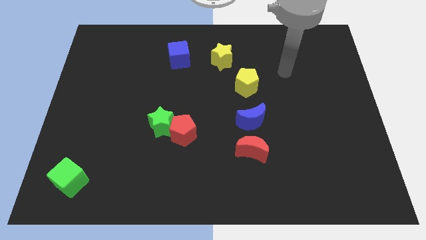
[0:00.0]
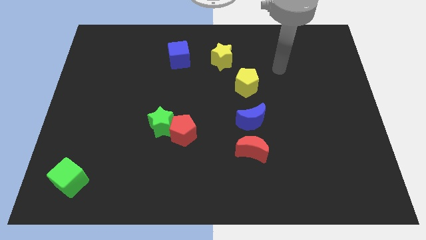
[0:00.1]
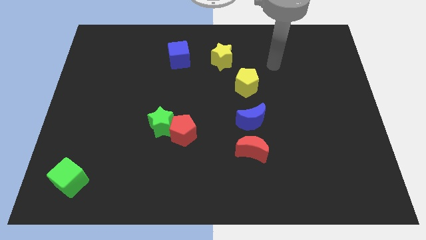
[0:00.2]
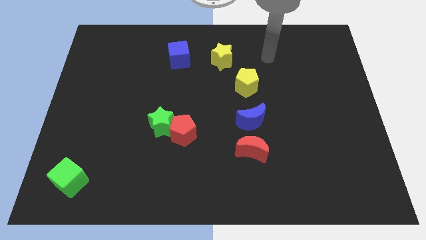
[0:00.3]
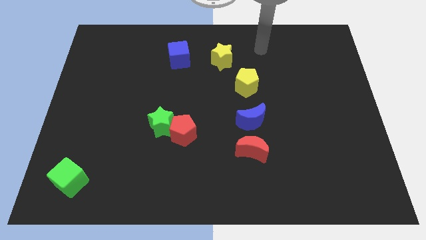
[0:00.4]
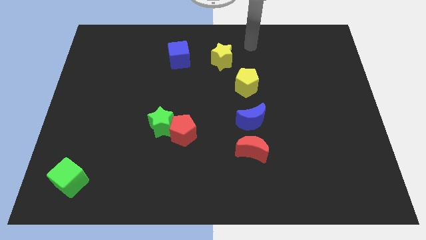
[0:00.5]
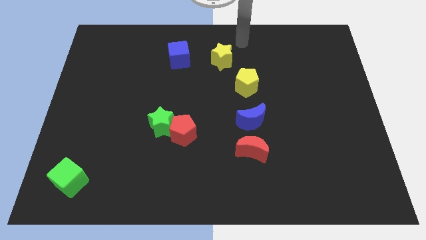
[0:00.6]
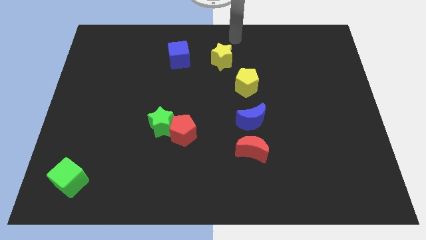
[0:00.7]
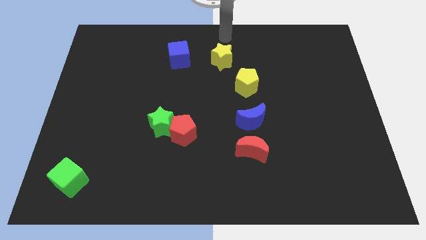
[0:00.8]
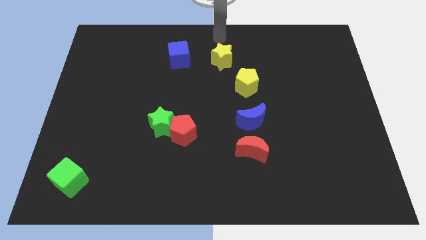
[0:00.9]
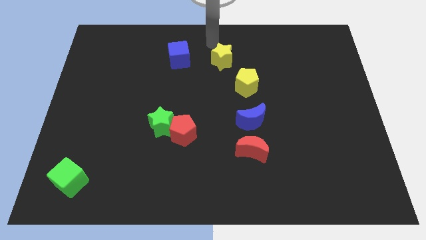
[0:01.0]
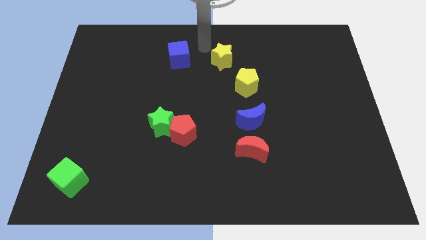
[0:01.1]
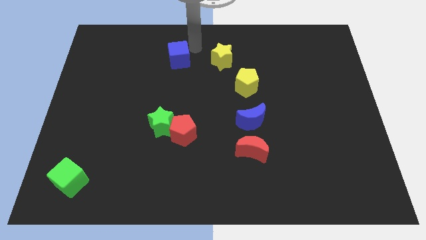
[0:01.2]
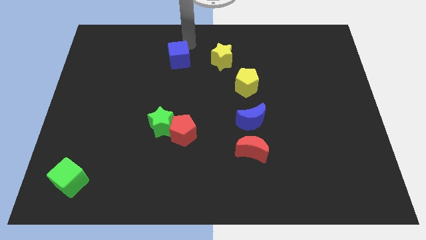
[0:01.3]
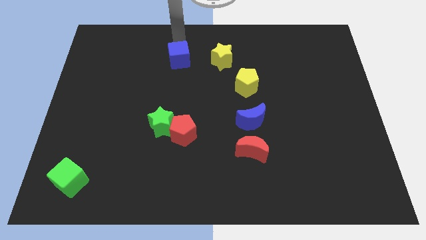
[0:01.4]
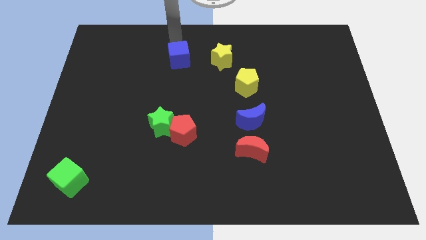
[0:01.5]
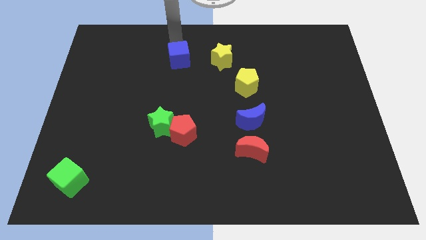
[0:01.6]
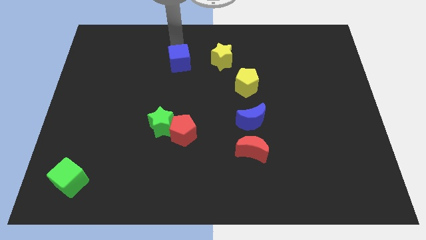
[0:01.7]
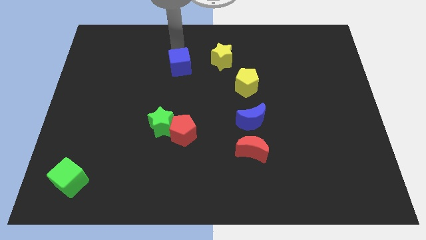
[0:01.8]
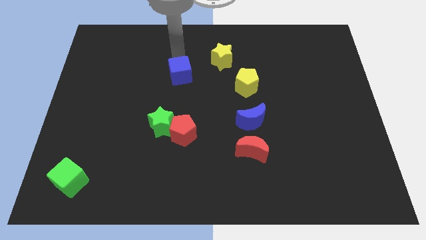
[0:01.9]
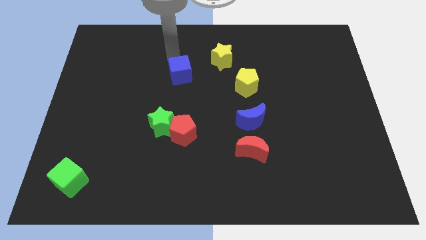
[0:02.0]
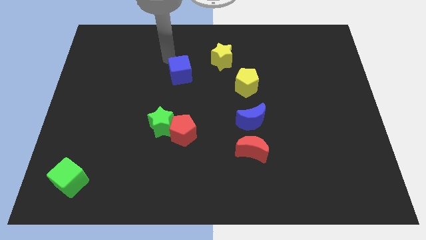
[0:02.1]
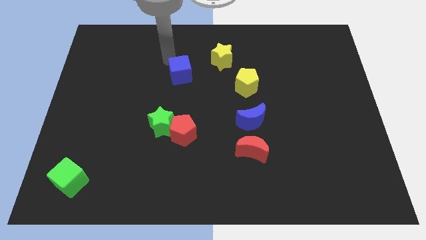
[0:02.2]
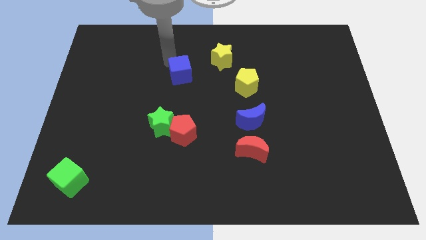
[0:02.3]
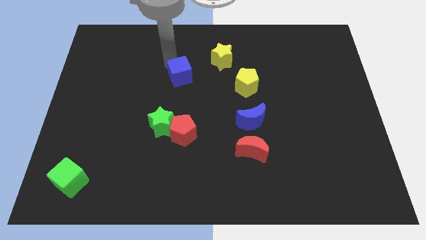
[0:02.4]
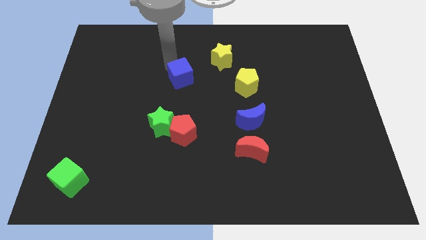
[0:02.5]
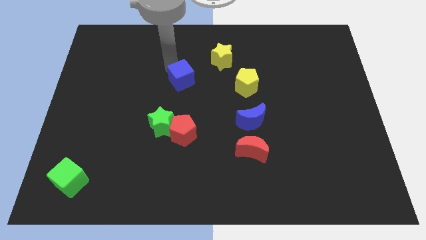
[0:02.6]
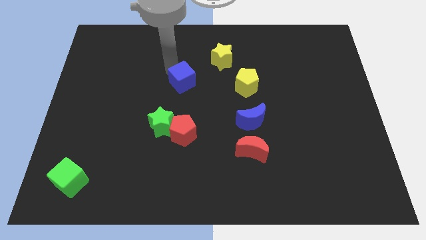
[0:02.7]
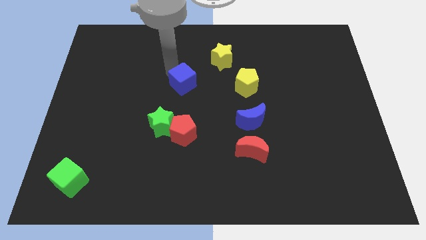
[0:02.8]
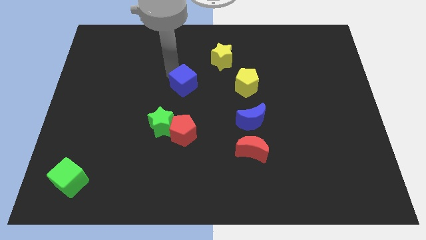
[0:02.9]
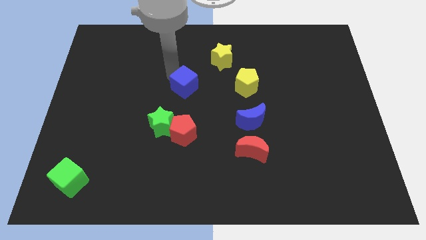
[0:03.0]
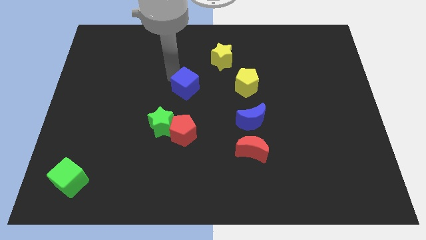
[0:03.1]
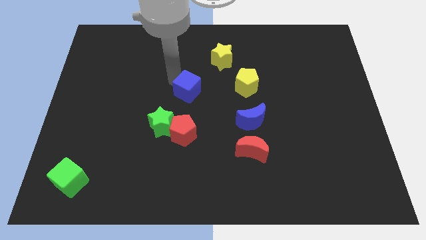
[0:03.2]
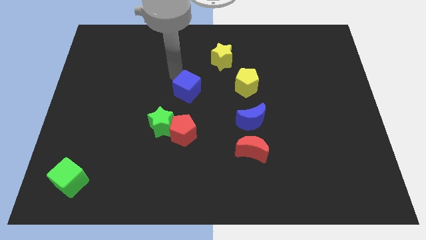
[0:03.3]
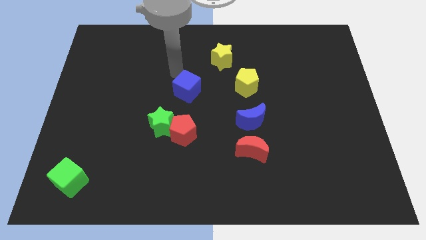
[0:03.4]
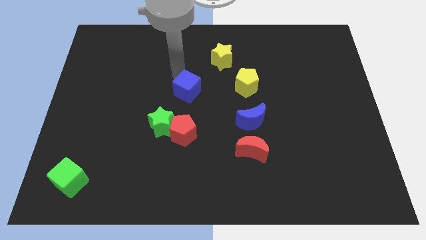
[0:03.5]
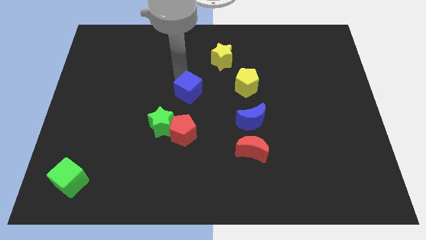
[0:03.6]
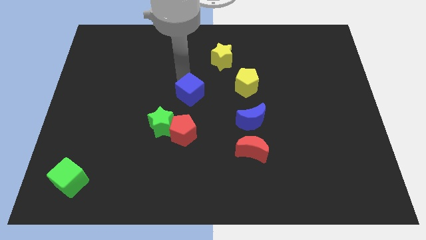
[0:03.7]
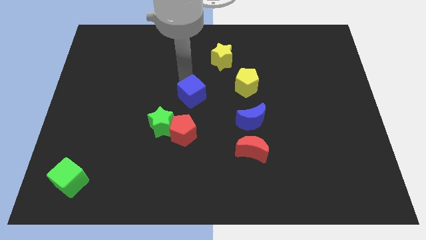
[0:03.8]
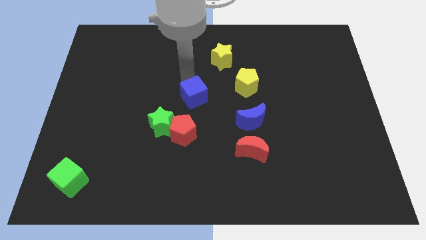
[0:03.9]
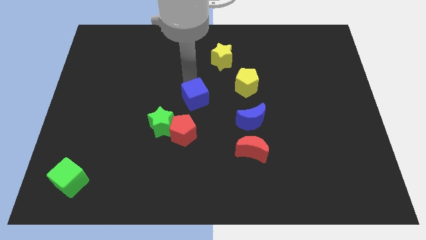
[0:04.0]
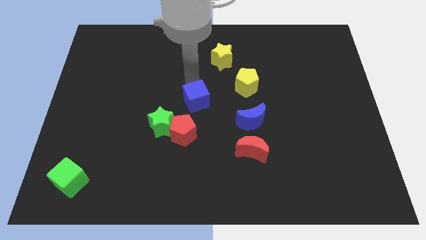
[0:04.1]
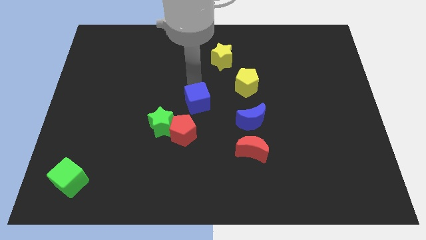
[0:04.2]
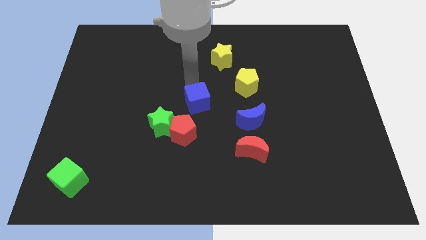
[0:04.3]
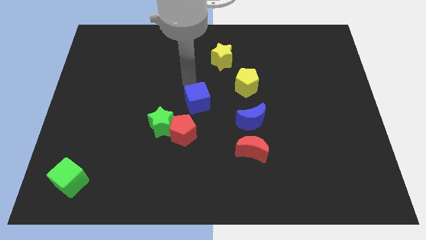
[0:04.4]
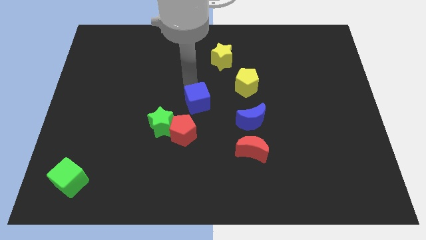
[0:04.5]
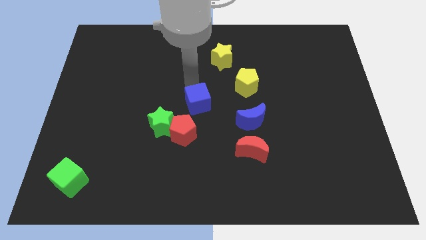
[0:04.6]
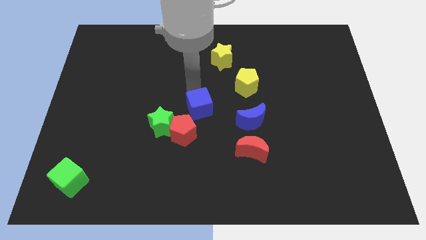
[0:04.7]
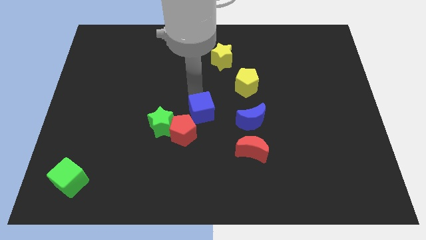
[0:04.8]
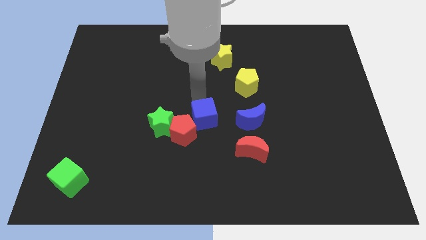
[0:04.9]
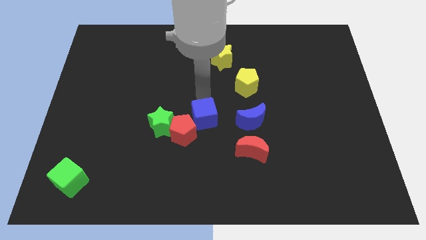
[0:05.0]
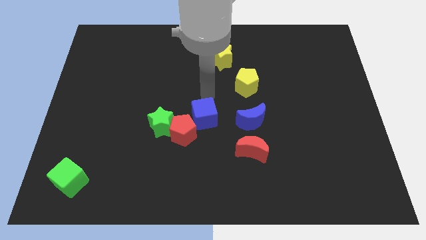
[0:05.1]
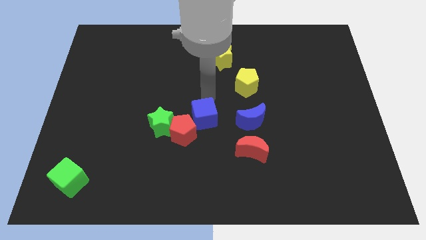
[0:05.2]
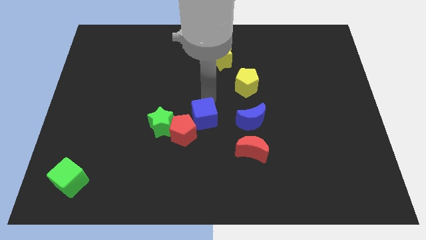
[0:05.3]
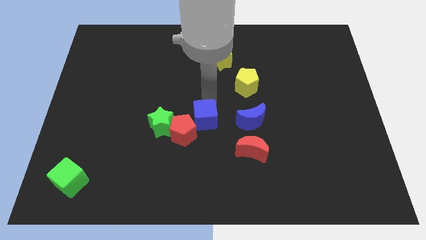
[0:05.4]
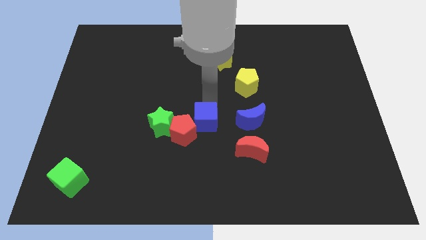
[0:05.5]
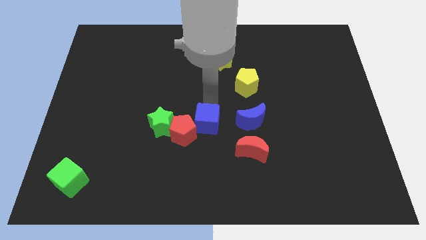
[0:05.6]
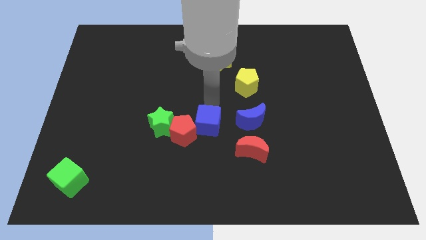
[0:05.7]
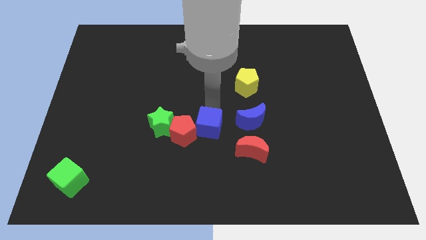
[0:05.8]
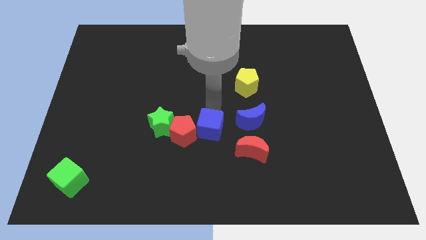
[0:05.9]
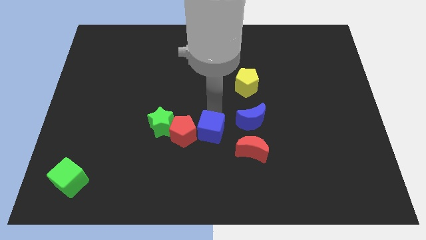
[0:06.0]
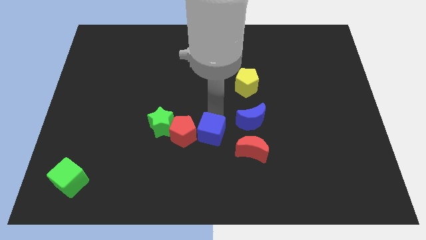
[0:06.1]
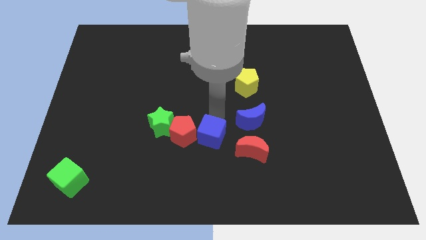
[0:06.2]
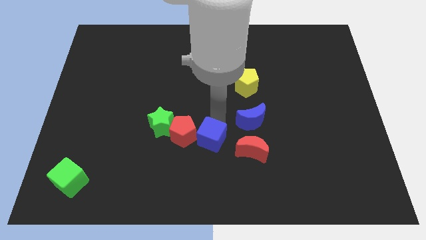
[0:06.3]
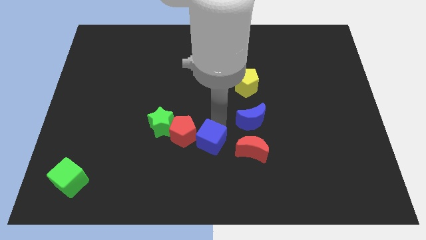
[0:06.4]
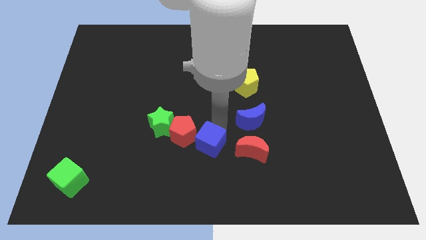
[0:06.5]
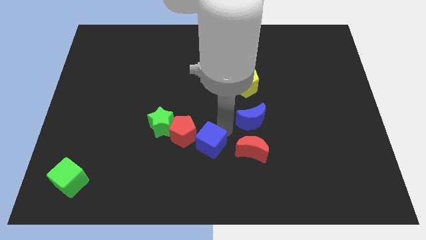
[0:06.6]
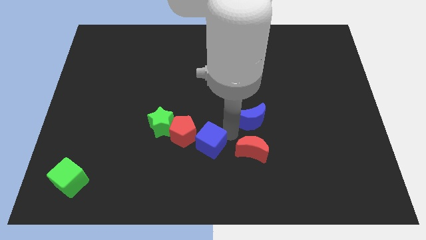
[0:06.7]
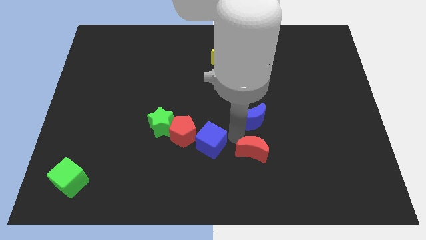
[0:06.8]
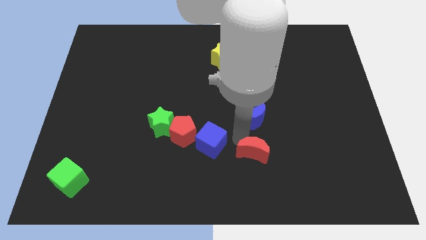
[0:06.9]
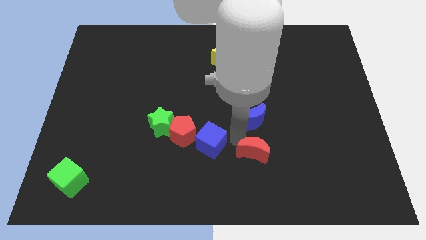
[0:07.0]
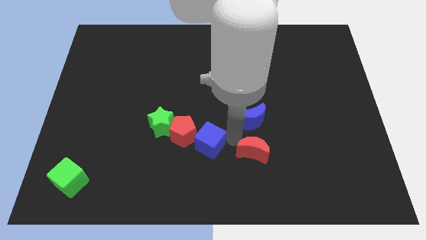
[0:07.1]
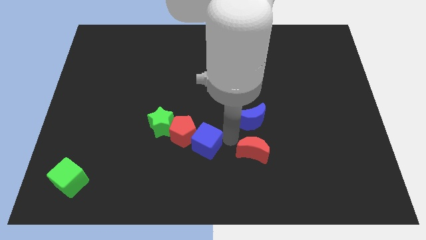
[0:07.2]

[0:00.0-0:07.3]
slide the blue cube to the bottom right of the green star
